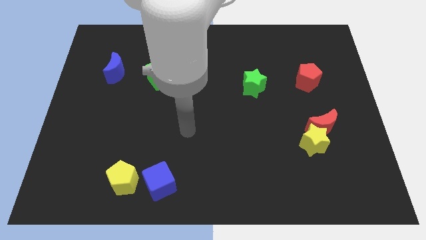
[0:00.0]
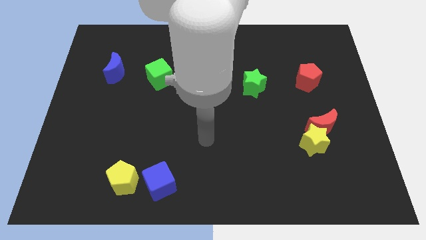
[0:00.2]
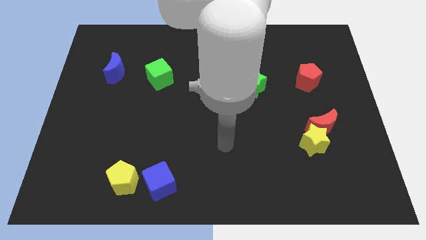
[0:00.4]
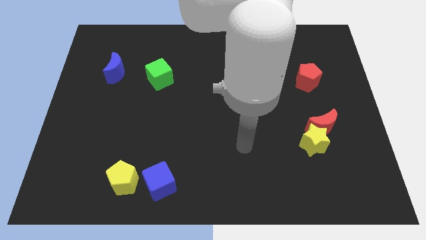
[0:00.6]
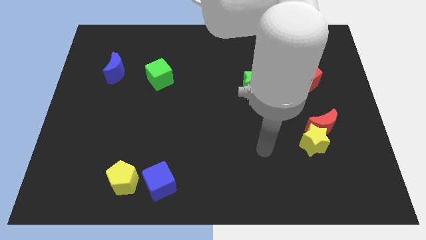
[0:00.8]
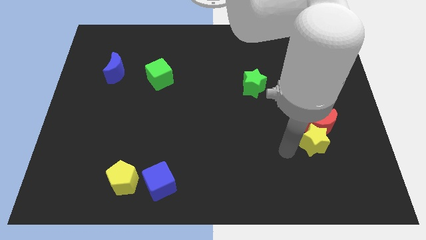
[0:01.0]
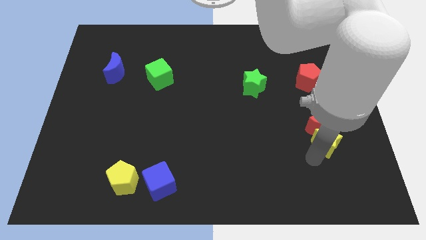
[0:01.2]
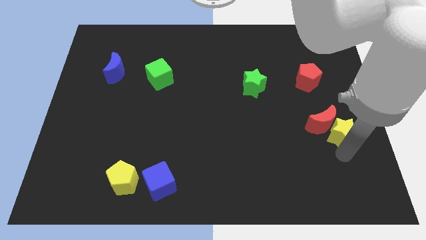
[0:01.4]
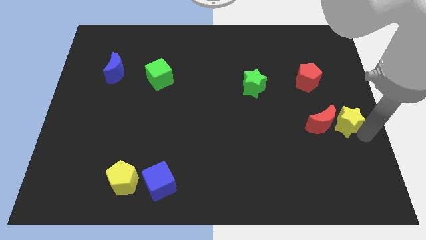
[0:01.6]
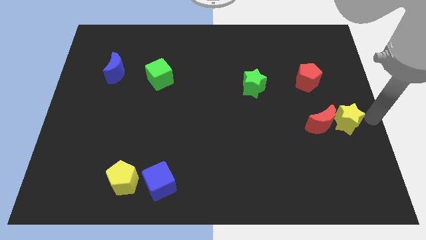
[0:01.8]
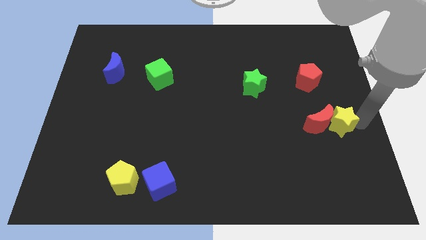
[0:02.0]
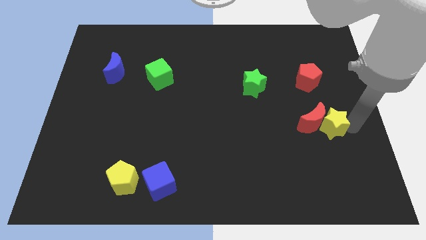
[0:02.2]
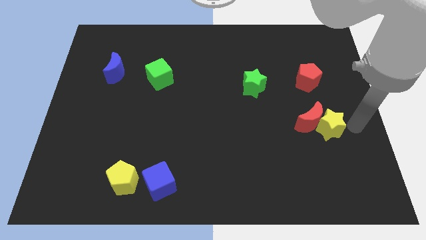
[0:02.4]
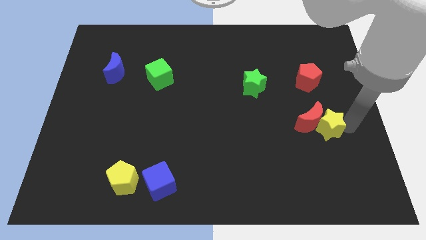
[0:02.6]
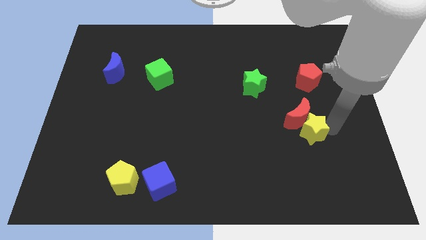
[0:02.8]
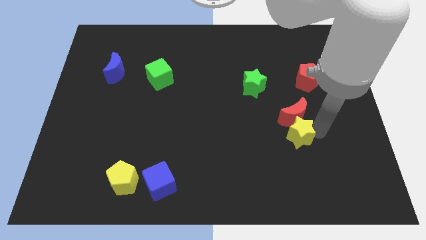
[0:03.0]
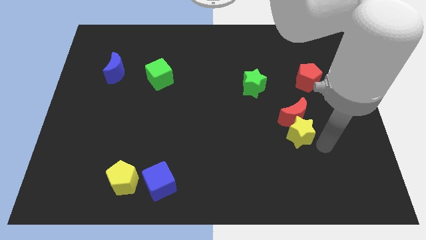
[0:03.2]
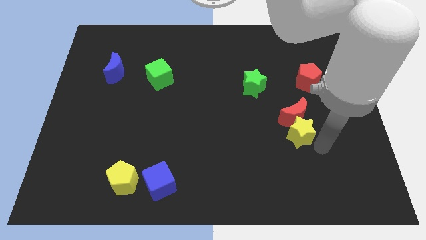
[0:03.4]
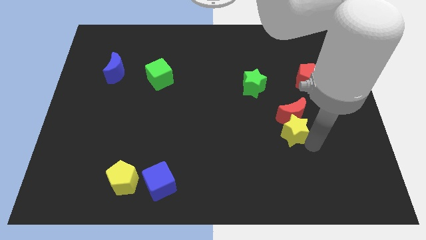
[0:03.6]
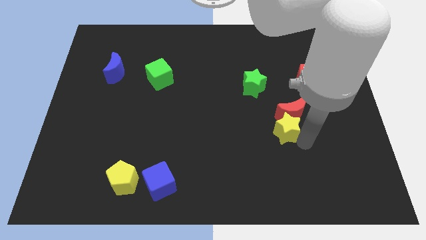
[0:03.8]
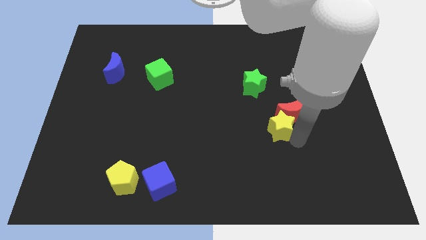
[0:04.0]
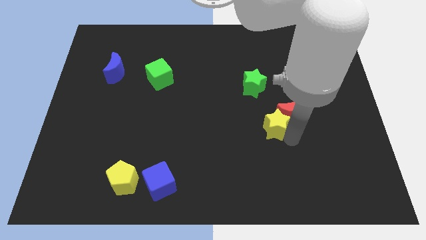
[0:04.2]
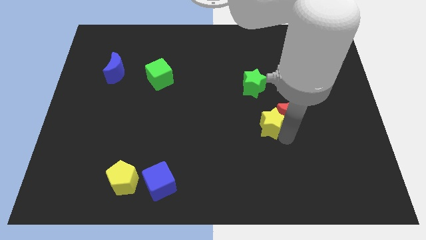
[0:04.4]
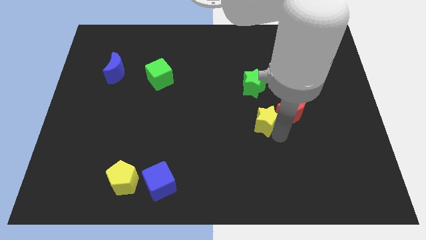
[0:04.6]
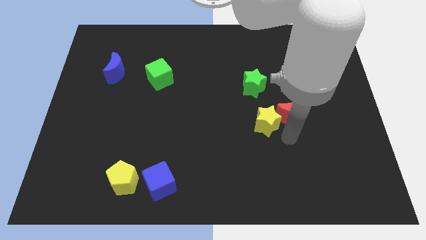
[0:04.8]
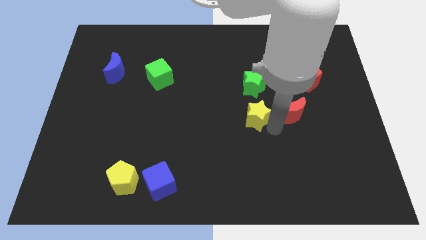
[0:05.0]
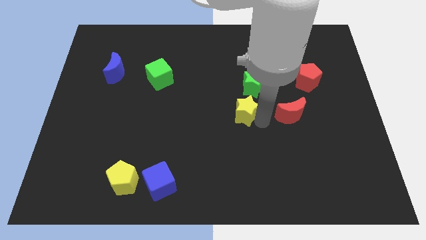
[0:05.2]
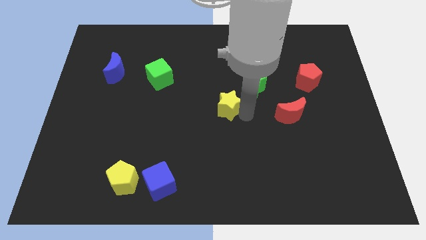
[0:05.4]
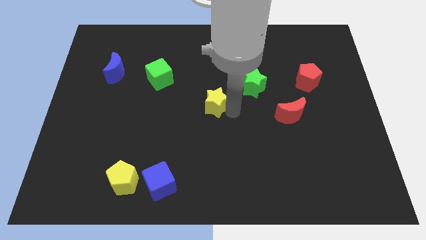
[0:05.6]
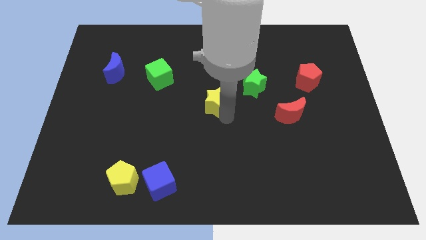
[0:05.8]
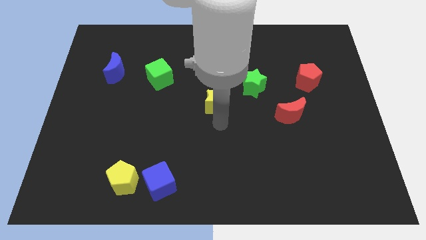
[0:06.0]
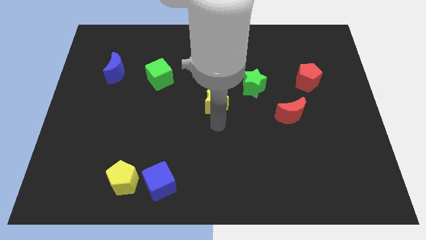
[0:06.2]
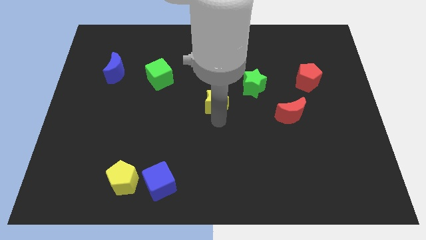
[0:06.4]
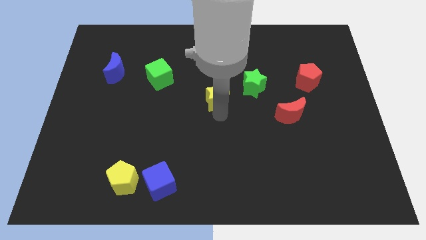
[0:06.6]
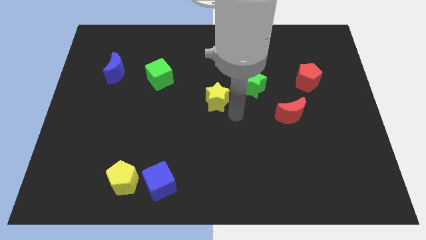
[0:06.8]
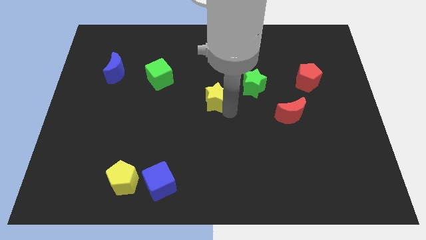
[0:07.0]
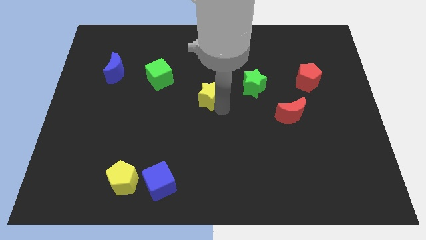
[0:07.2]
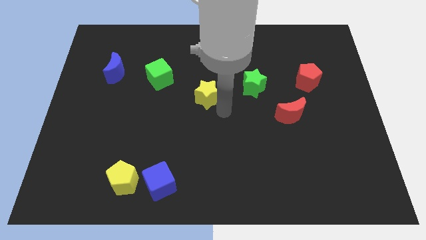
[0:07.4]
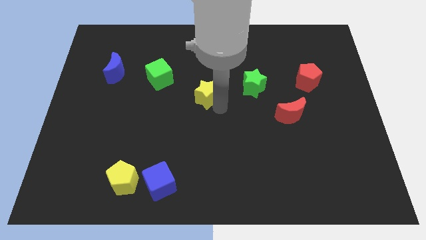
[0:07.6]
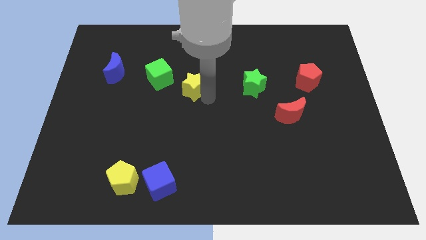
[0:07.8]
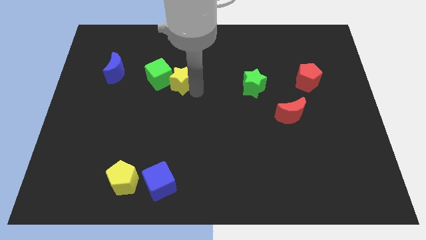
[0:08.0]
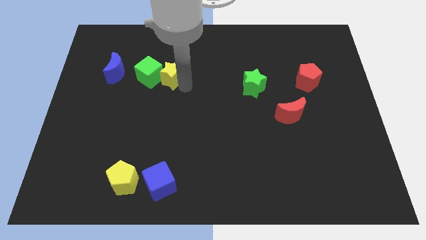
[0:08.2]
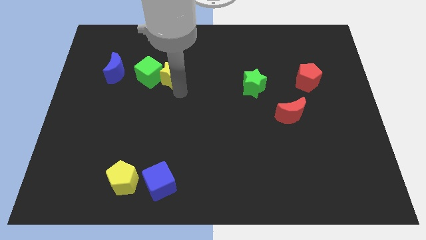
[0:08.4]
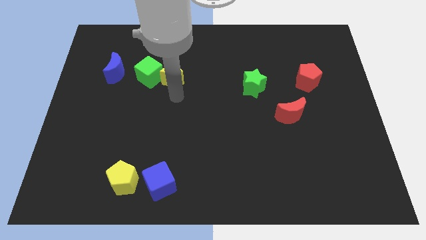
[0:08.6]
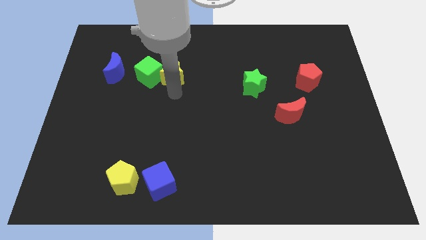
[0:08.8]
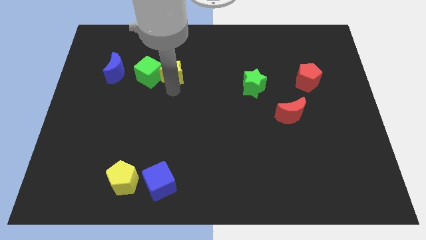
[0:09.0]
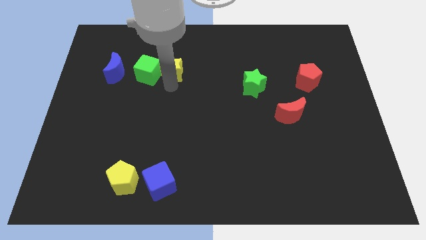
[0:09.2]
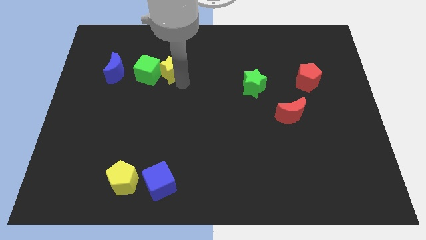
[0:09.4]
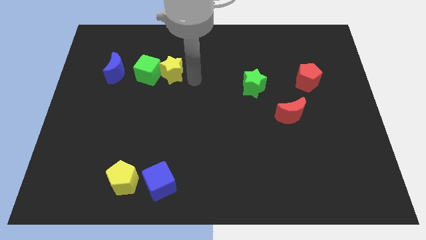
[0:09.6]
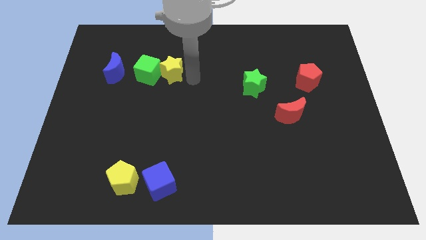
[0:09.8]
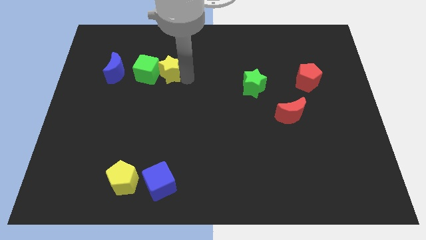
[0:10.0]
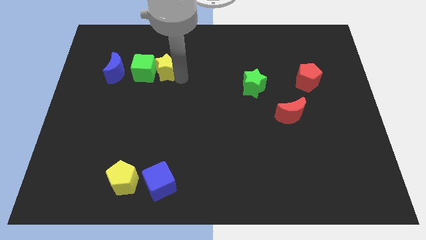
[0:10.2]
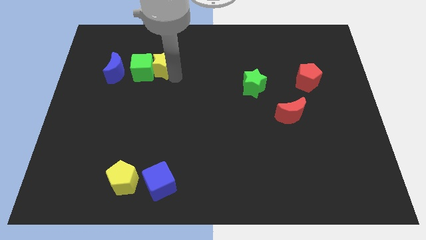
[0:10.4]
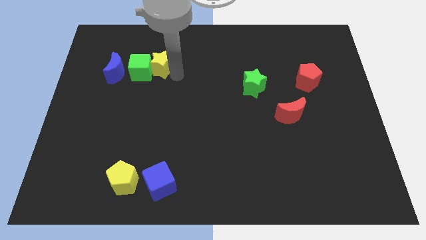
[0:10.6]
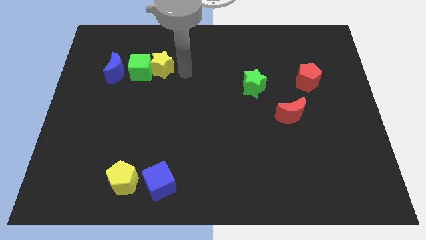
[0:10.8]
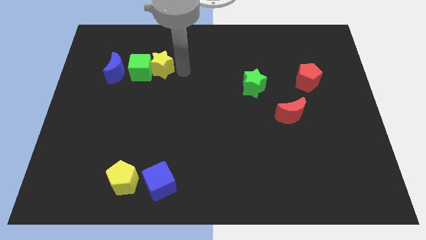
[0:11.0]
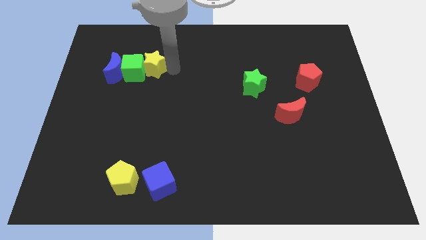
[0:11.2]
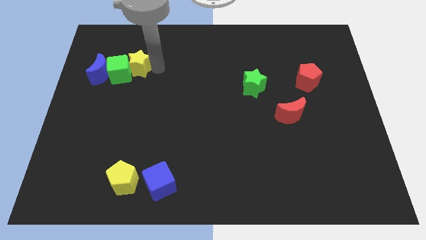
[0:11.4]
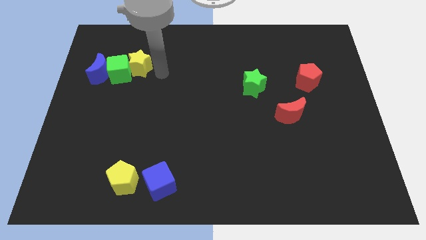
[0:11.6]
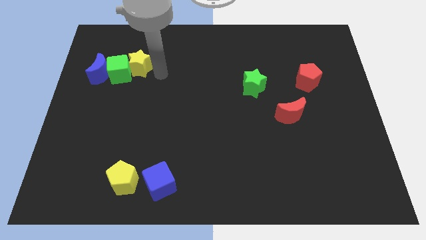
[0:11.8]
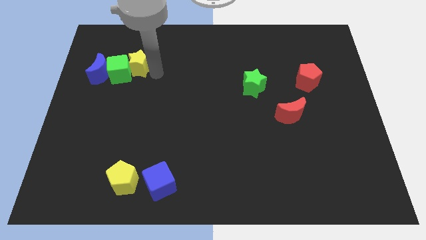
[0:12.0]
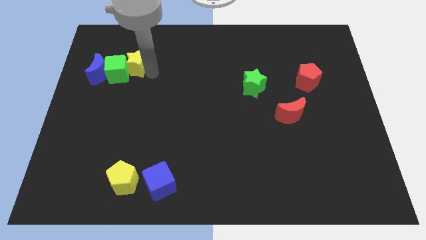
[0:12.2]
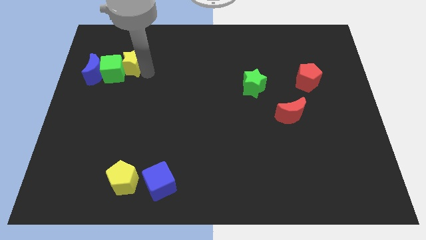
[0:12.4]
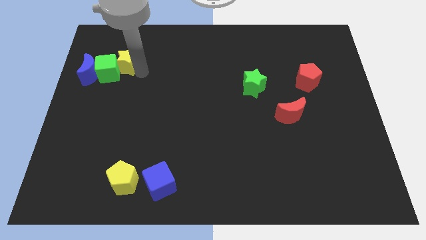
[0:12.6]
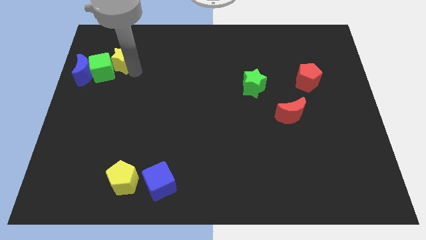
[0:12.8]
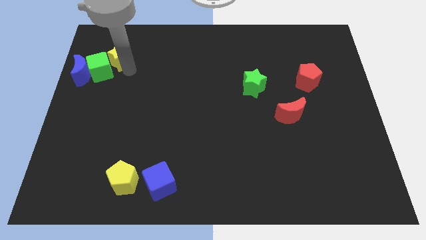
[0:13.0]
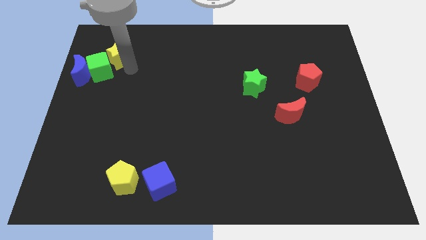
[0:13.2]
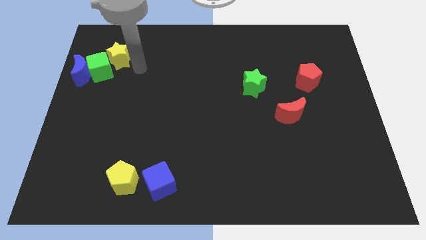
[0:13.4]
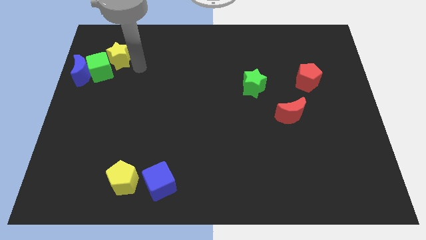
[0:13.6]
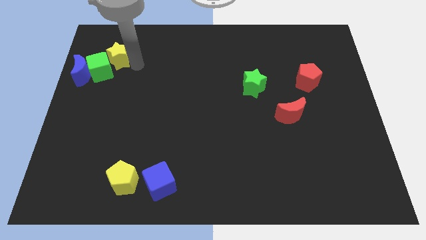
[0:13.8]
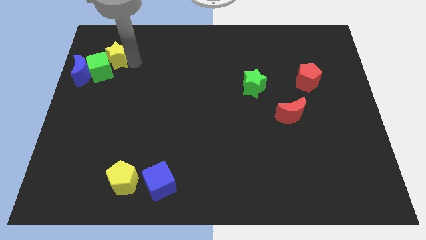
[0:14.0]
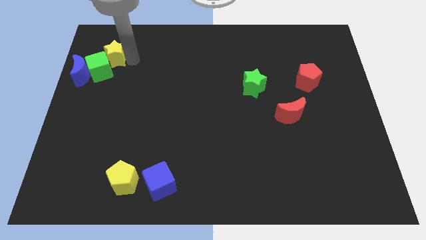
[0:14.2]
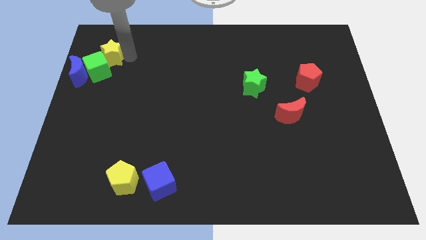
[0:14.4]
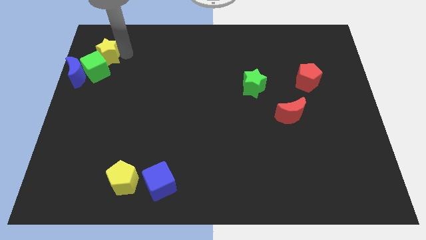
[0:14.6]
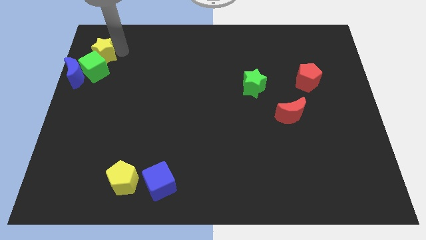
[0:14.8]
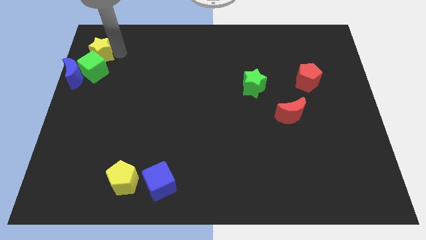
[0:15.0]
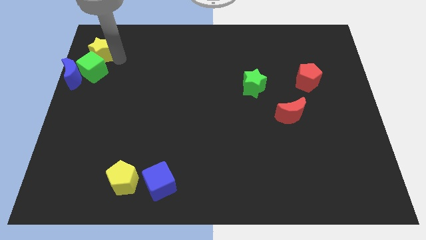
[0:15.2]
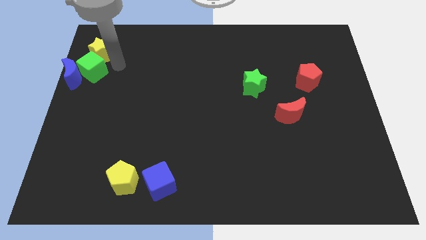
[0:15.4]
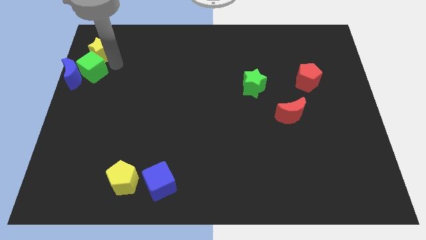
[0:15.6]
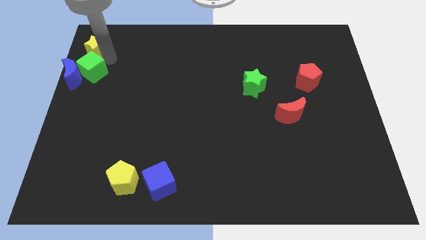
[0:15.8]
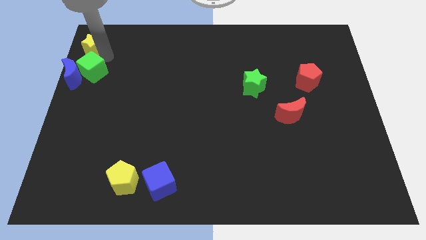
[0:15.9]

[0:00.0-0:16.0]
push the yellow star to the top left corner
